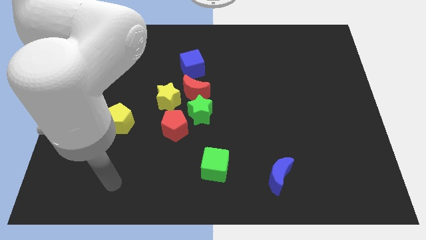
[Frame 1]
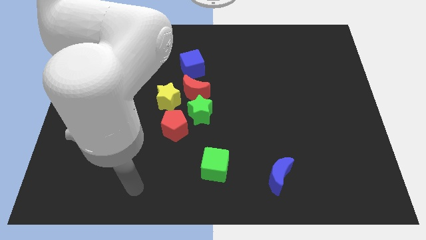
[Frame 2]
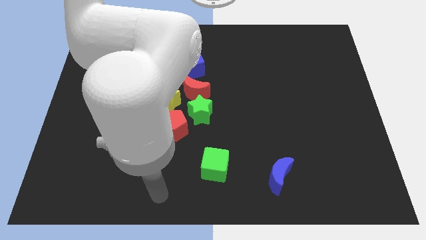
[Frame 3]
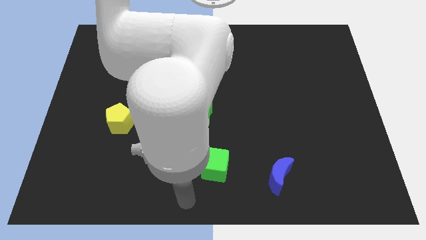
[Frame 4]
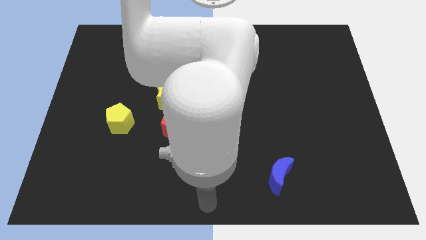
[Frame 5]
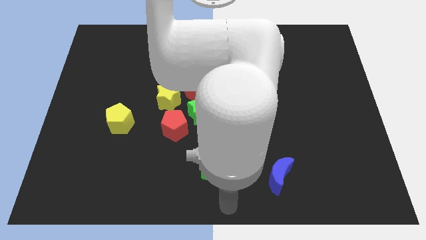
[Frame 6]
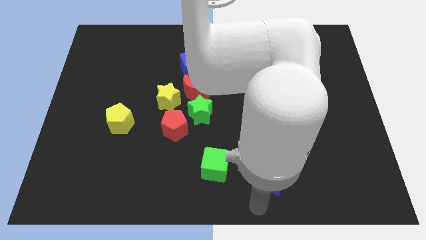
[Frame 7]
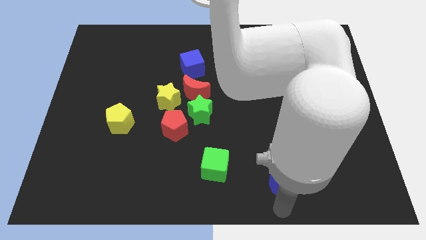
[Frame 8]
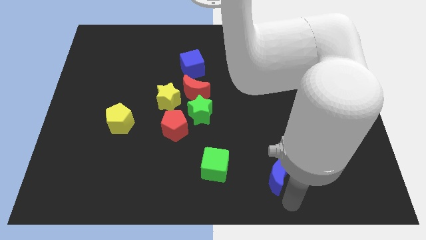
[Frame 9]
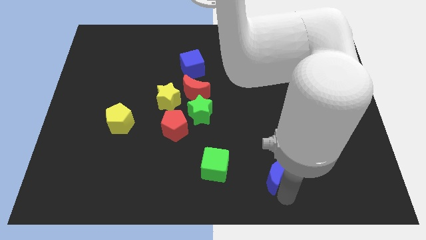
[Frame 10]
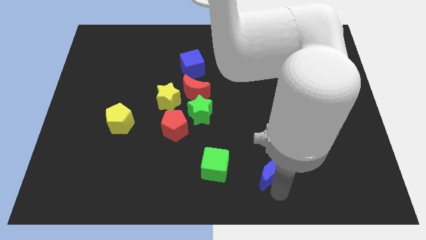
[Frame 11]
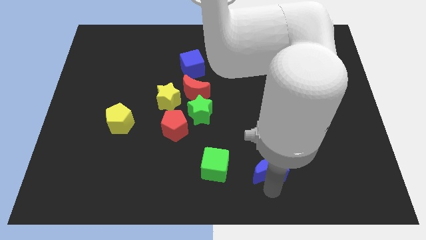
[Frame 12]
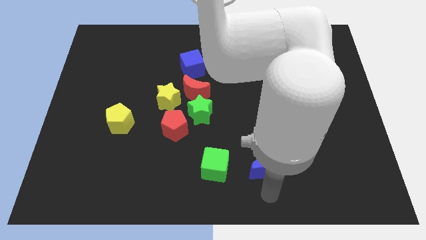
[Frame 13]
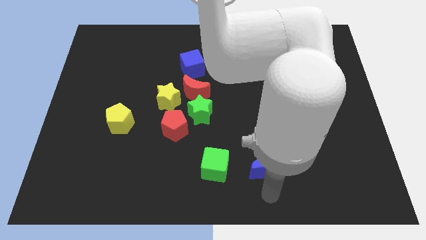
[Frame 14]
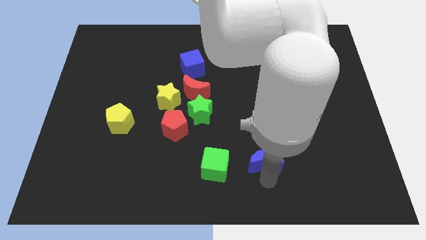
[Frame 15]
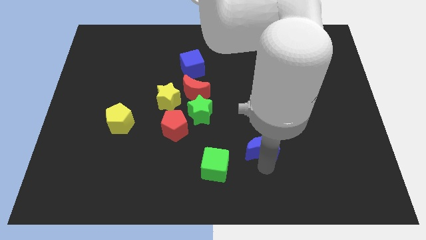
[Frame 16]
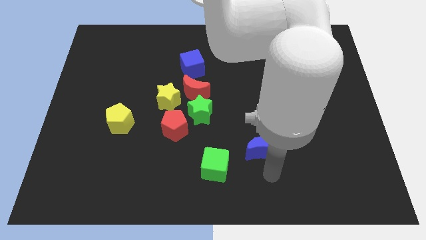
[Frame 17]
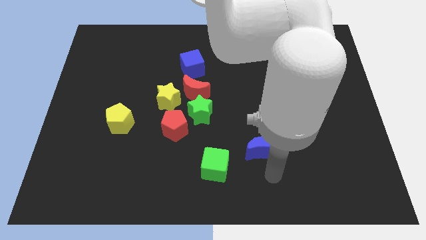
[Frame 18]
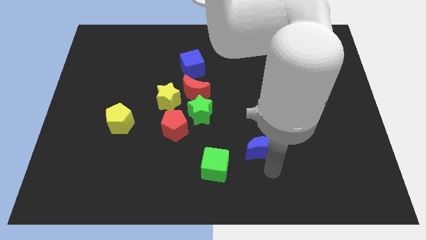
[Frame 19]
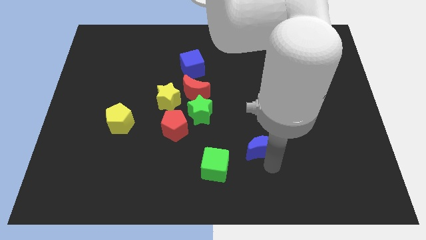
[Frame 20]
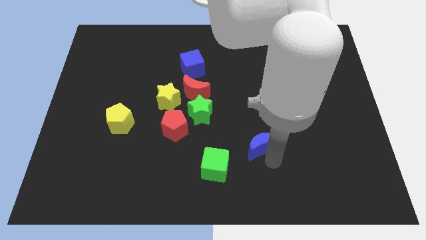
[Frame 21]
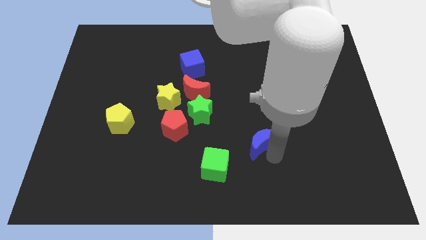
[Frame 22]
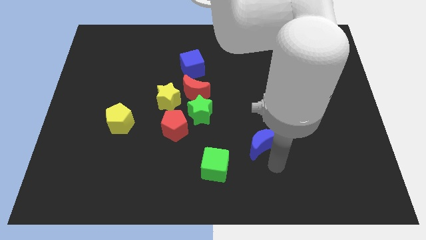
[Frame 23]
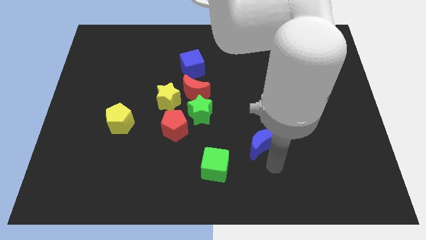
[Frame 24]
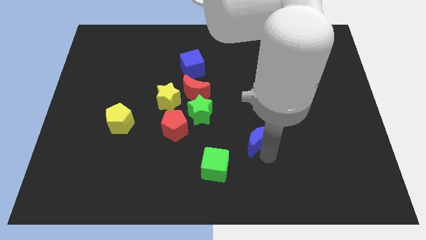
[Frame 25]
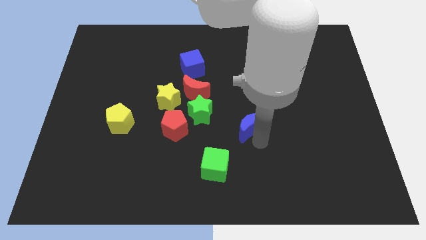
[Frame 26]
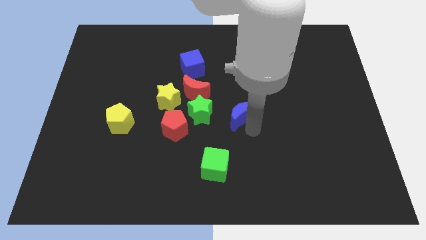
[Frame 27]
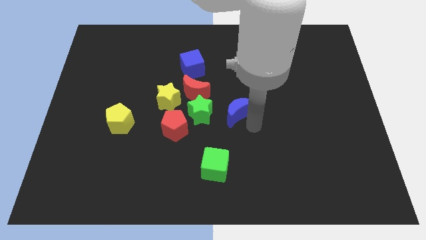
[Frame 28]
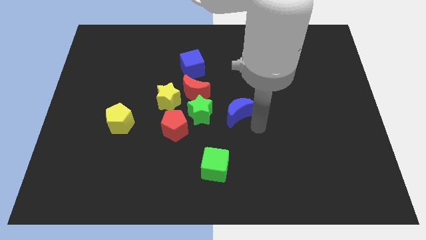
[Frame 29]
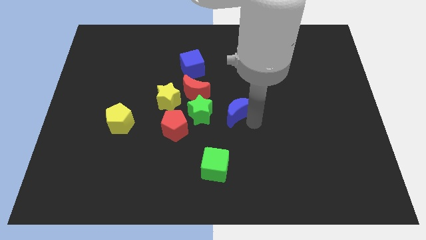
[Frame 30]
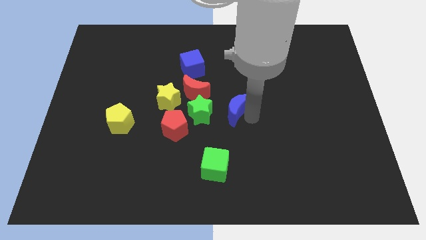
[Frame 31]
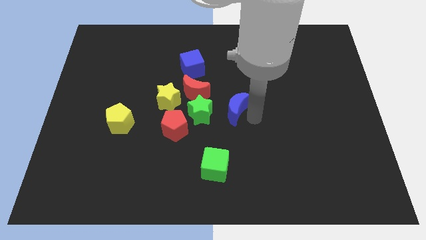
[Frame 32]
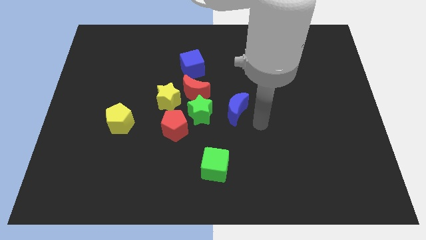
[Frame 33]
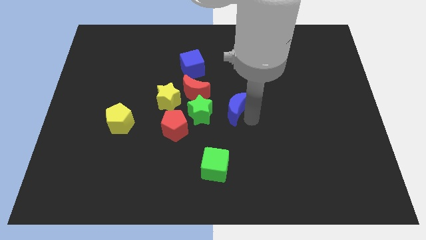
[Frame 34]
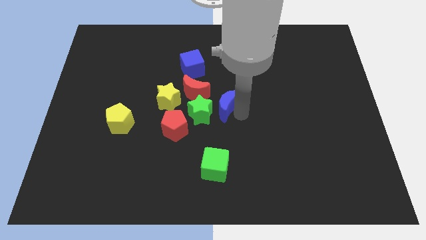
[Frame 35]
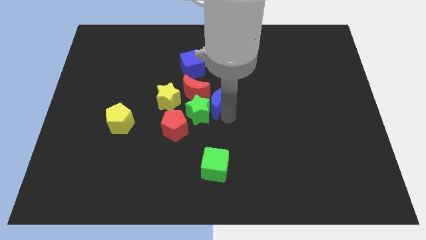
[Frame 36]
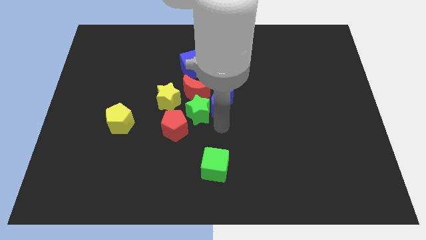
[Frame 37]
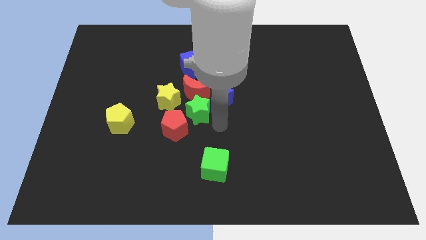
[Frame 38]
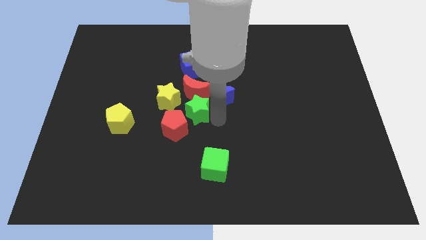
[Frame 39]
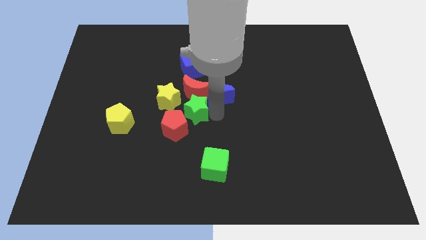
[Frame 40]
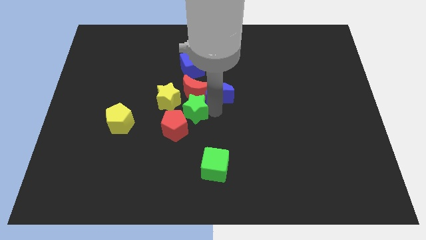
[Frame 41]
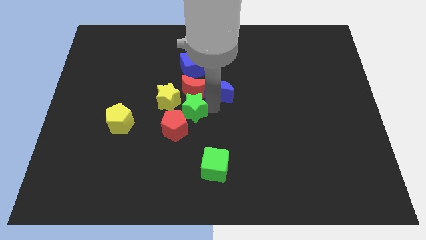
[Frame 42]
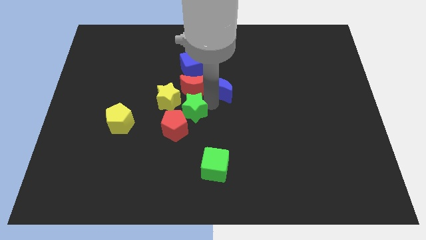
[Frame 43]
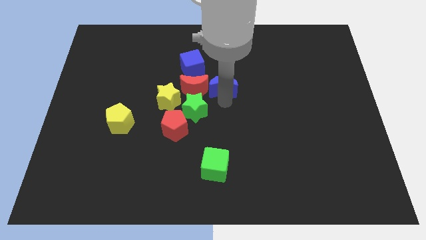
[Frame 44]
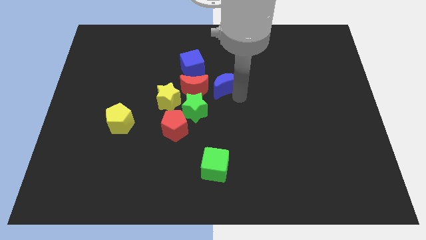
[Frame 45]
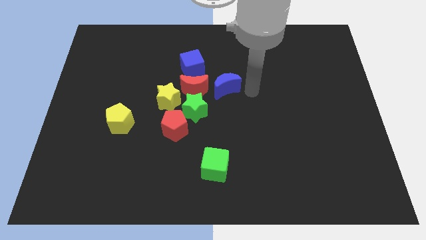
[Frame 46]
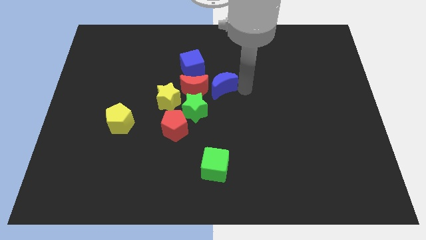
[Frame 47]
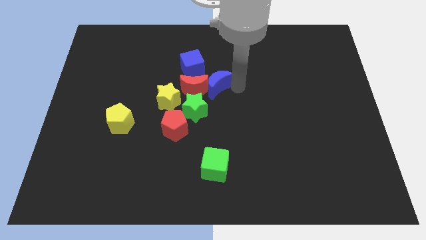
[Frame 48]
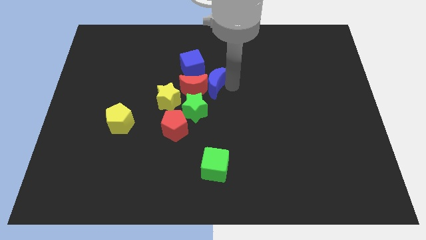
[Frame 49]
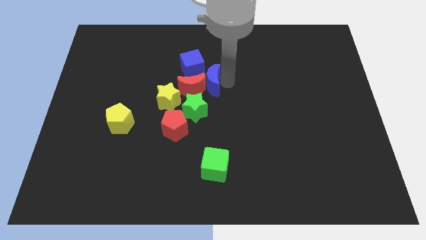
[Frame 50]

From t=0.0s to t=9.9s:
move the blue moon diagonally up and to the right of the yellow star

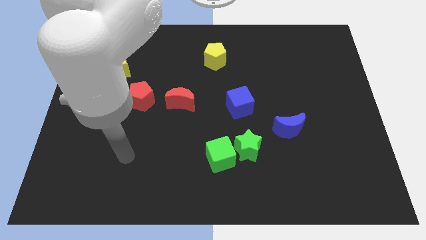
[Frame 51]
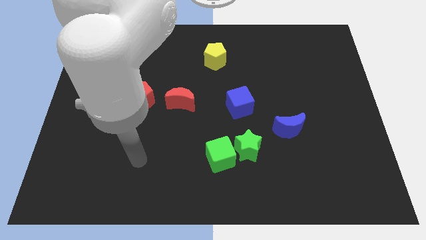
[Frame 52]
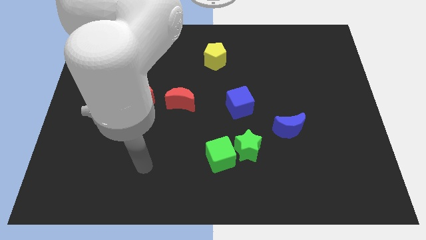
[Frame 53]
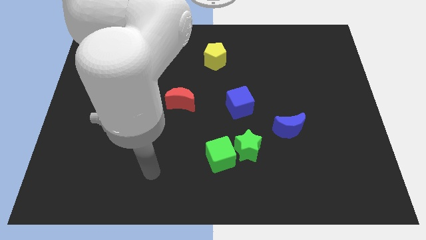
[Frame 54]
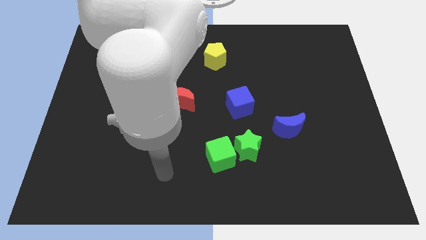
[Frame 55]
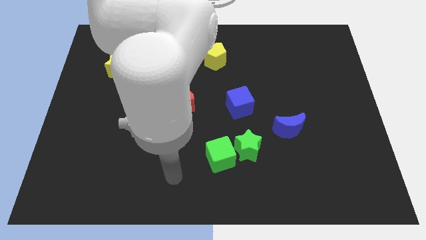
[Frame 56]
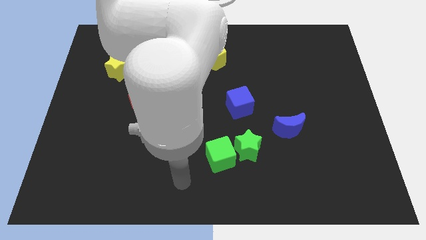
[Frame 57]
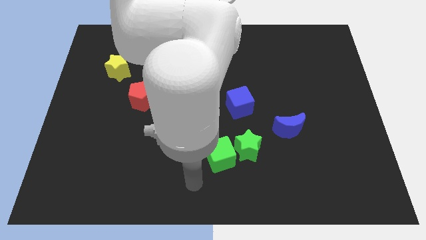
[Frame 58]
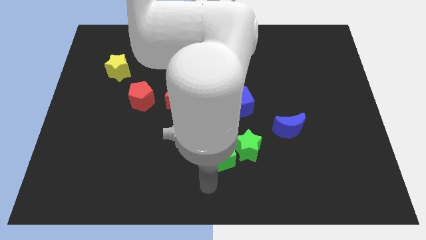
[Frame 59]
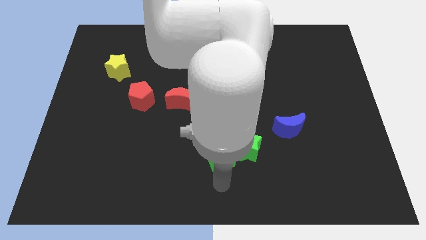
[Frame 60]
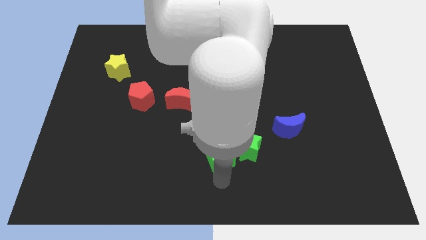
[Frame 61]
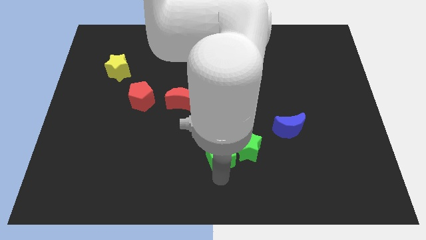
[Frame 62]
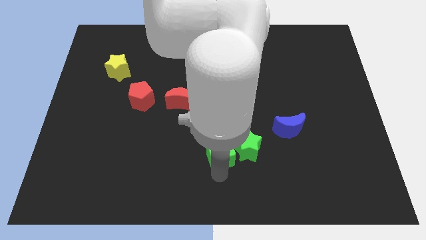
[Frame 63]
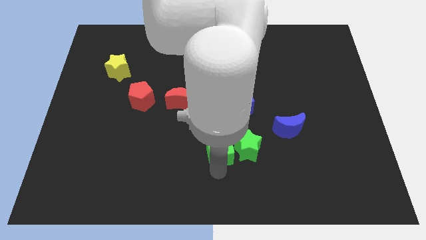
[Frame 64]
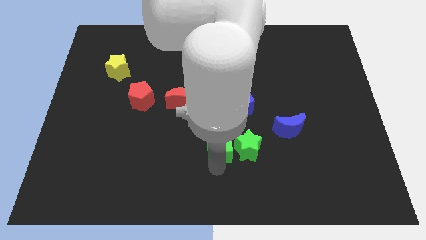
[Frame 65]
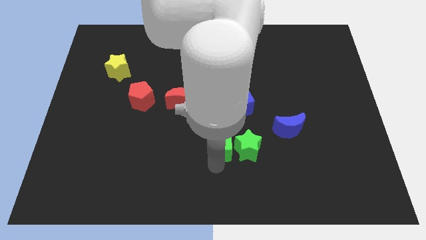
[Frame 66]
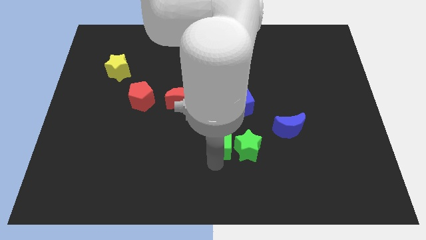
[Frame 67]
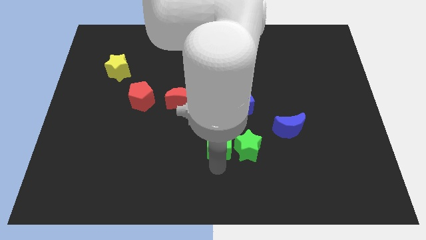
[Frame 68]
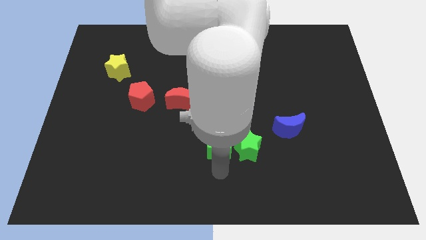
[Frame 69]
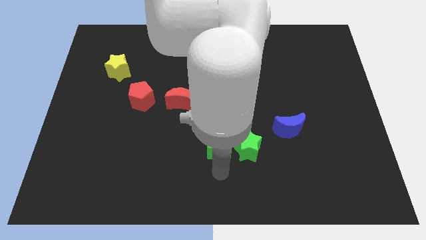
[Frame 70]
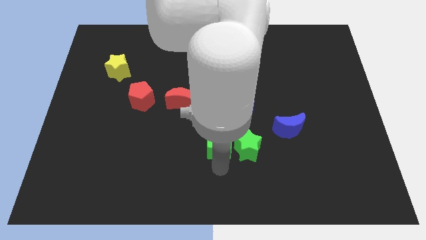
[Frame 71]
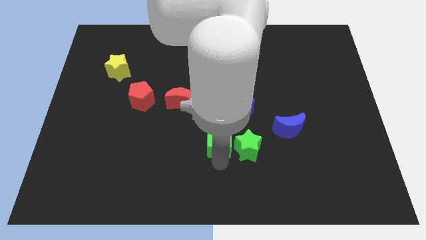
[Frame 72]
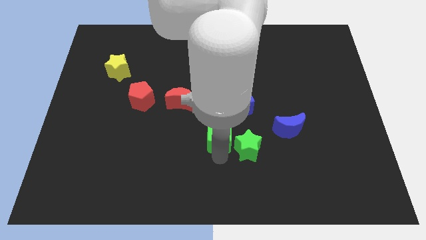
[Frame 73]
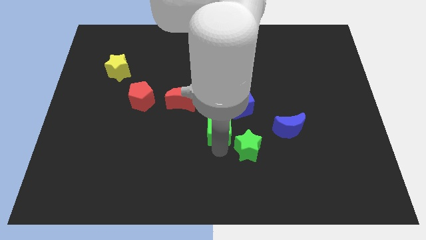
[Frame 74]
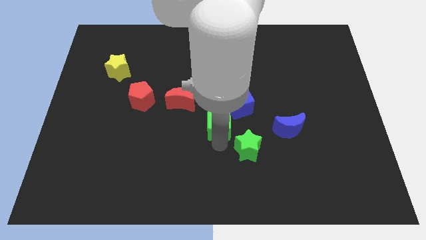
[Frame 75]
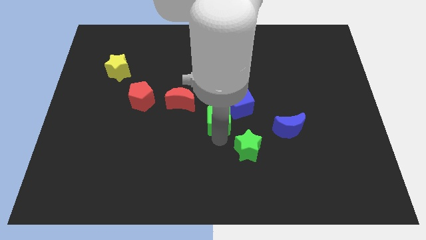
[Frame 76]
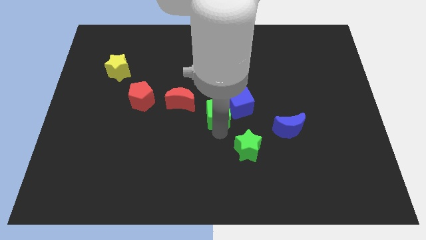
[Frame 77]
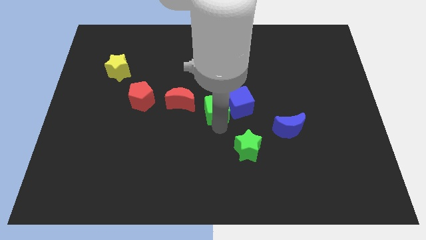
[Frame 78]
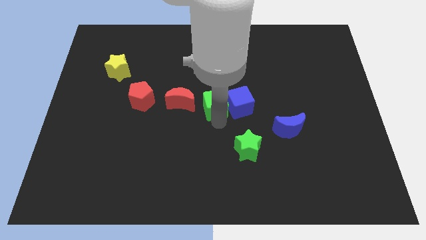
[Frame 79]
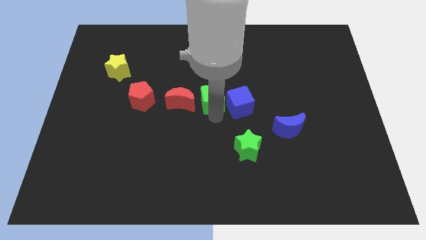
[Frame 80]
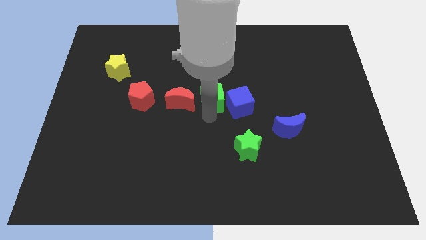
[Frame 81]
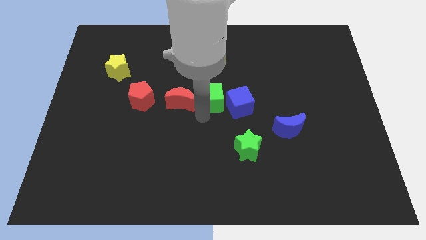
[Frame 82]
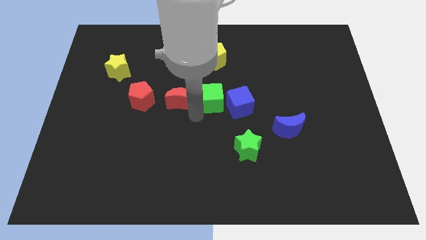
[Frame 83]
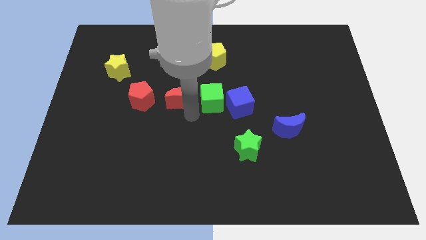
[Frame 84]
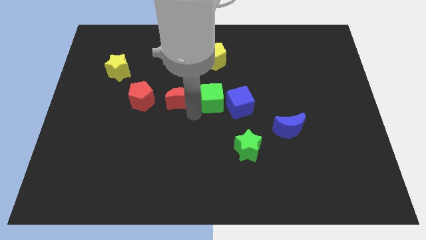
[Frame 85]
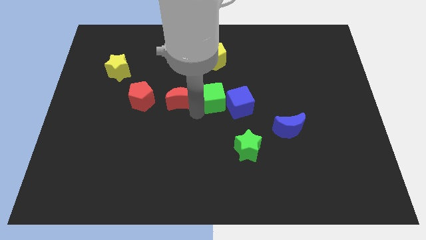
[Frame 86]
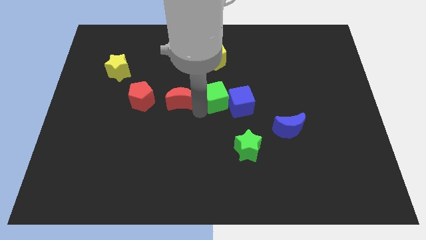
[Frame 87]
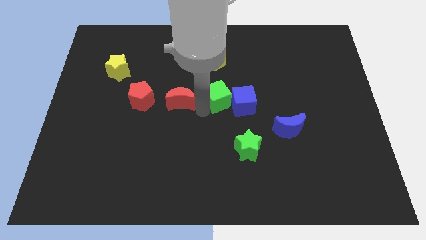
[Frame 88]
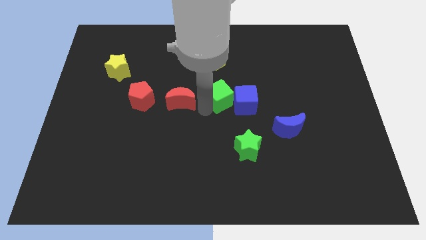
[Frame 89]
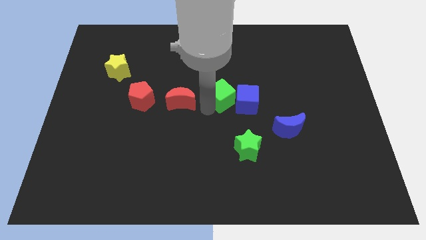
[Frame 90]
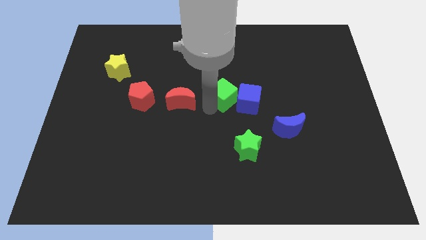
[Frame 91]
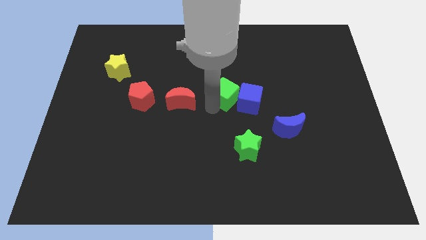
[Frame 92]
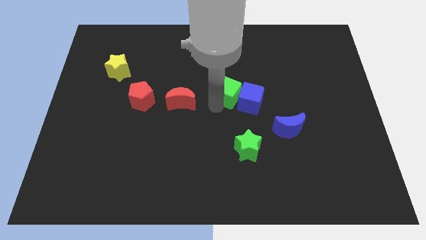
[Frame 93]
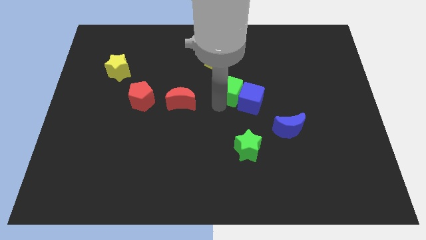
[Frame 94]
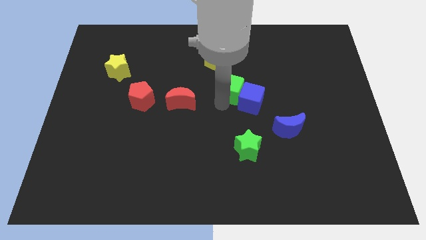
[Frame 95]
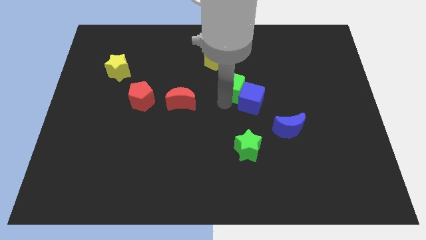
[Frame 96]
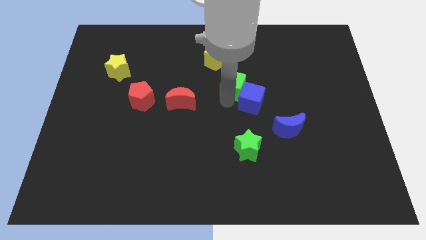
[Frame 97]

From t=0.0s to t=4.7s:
slide the green cube to the bottom right side of the yellow pentagon
